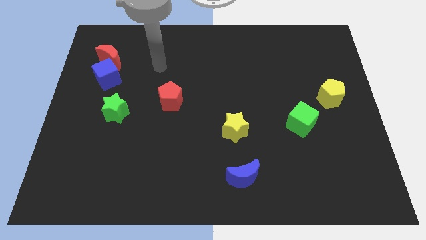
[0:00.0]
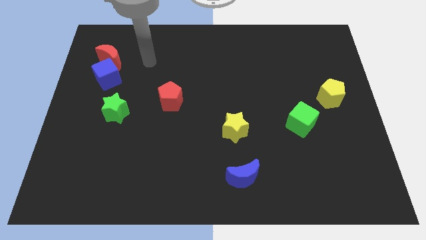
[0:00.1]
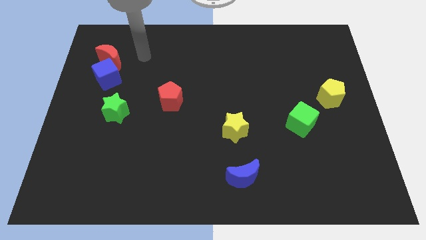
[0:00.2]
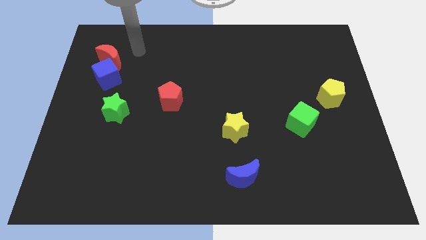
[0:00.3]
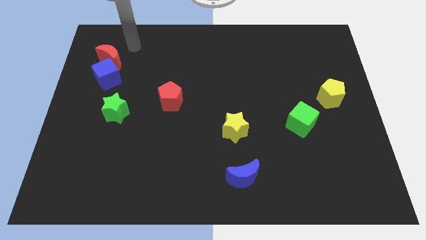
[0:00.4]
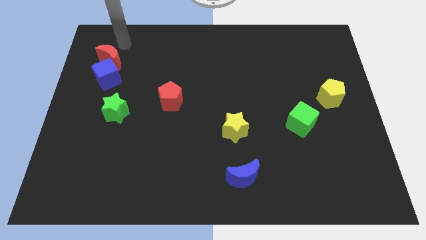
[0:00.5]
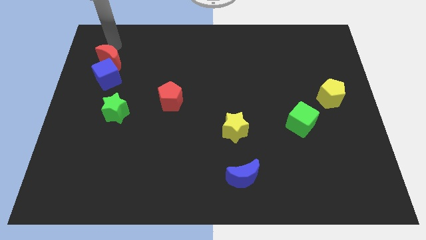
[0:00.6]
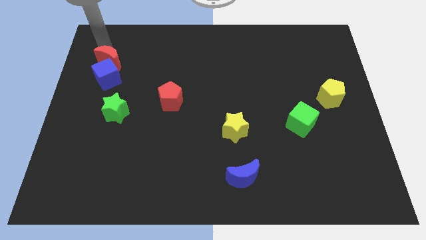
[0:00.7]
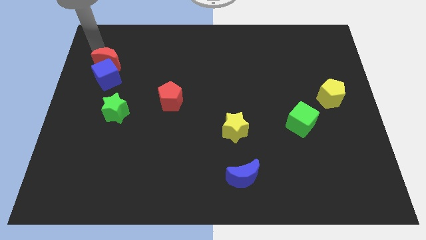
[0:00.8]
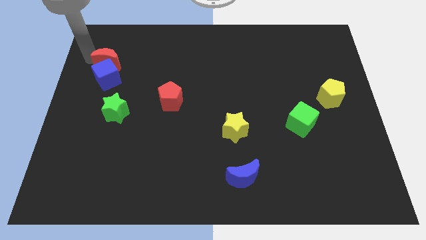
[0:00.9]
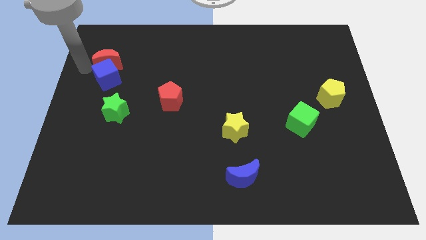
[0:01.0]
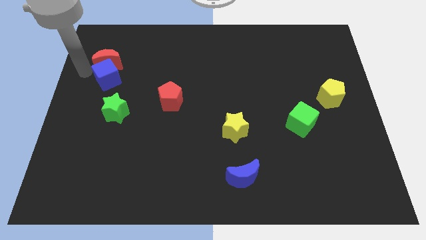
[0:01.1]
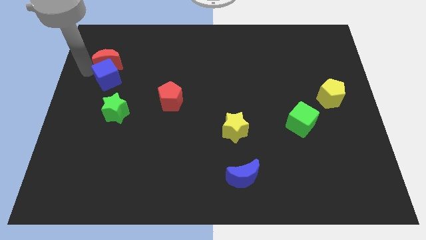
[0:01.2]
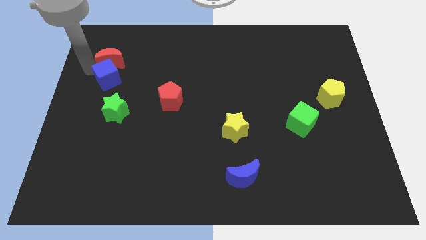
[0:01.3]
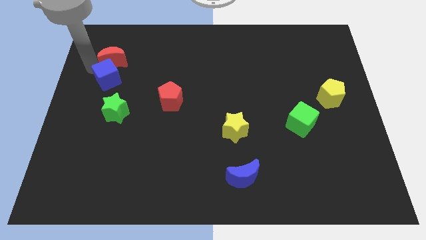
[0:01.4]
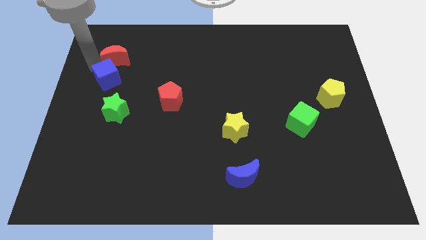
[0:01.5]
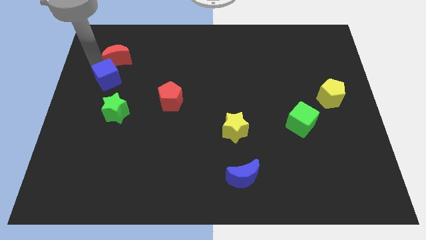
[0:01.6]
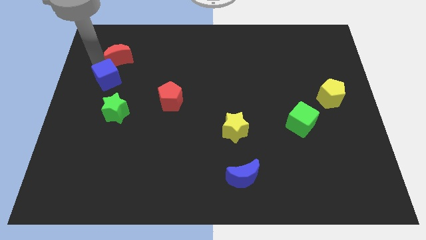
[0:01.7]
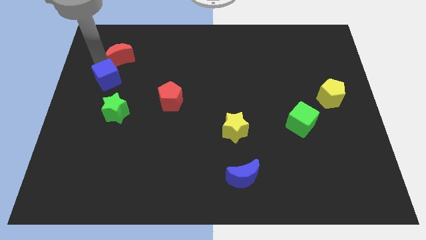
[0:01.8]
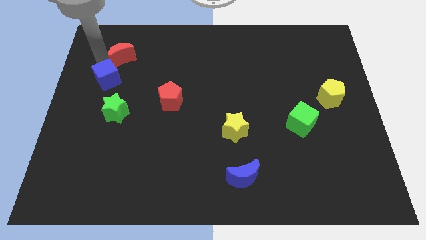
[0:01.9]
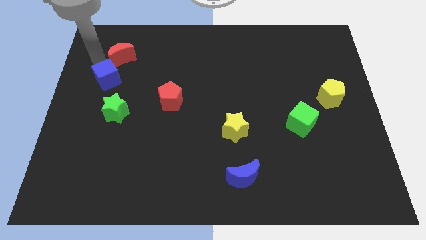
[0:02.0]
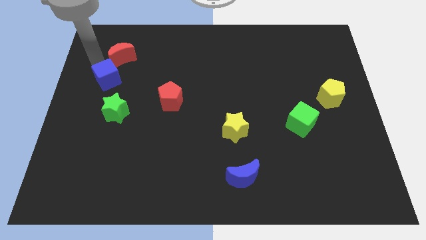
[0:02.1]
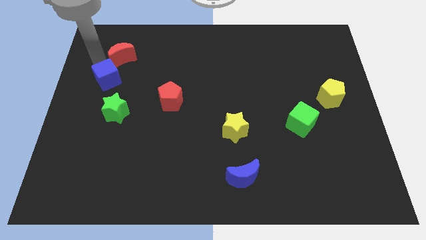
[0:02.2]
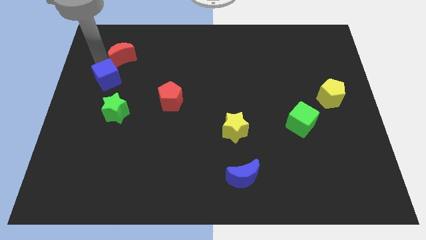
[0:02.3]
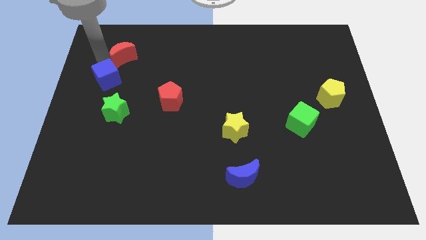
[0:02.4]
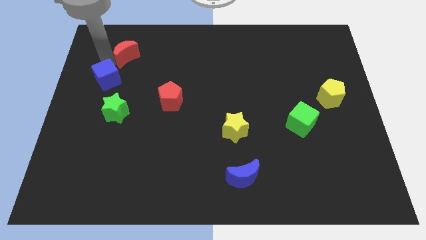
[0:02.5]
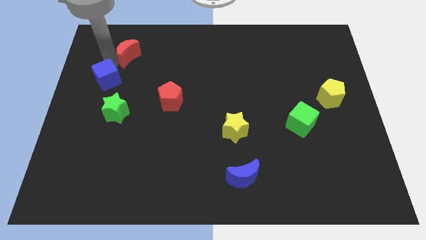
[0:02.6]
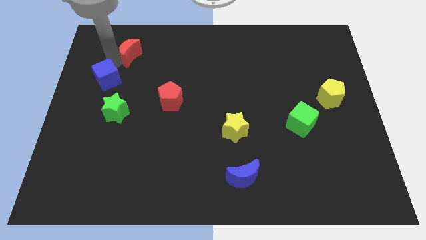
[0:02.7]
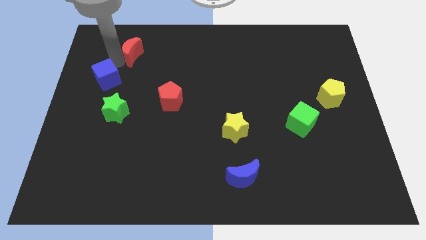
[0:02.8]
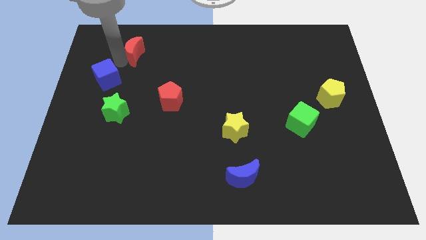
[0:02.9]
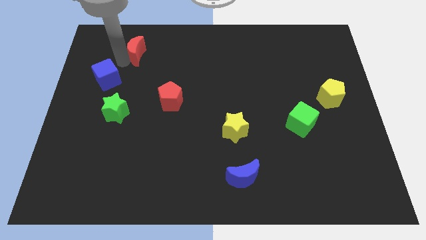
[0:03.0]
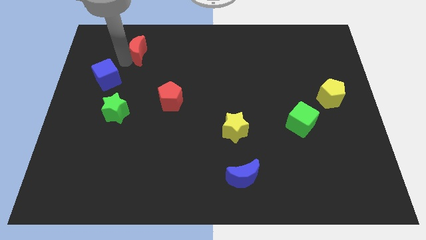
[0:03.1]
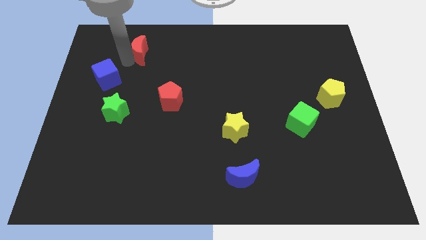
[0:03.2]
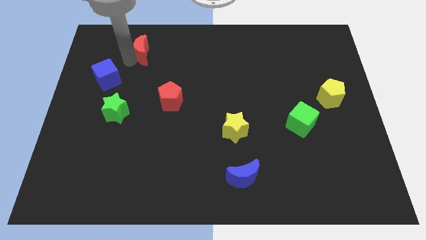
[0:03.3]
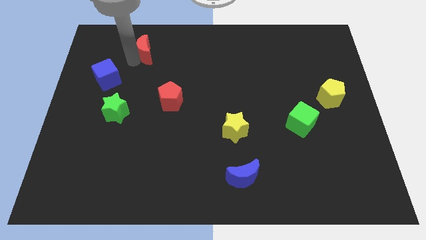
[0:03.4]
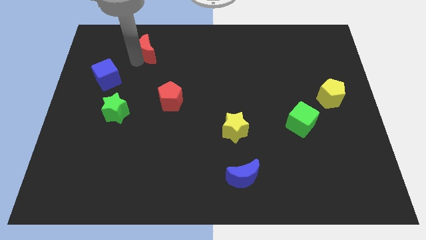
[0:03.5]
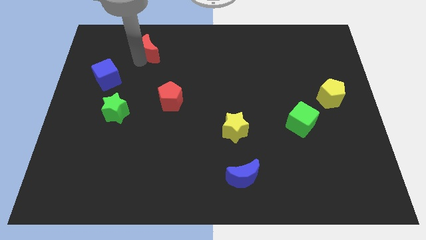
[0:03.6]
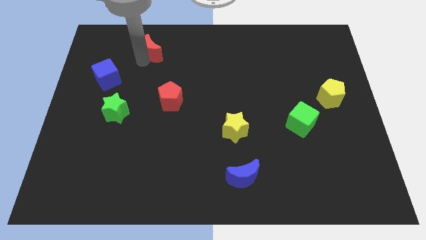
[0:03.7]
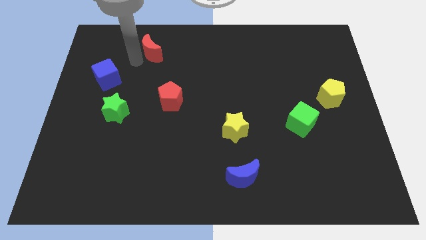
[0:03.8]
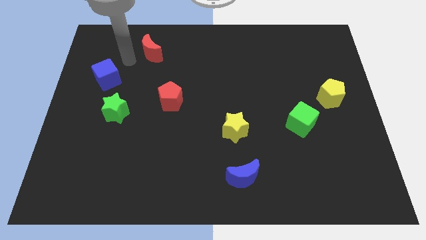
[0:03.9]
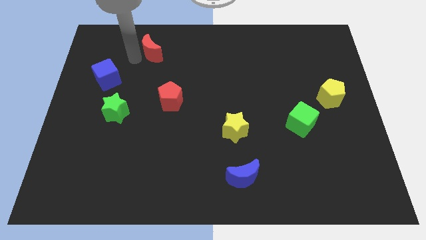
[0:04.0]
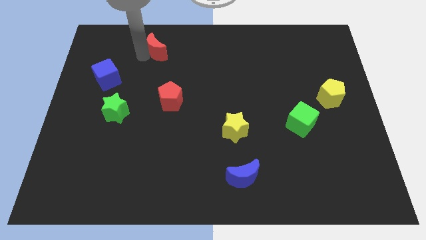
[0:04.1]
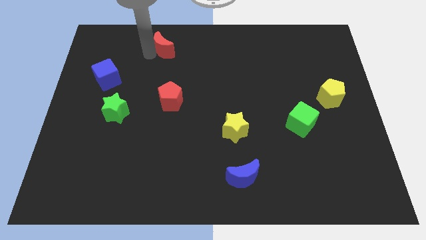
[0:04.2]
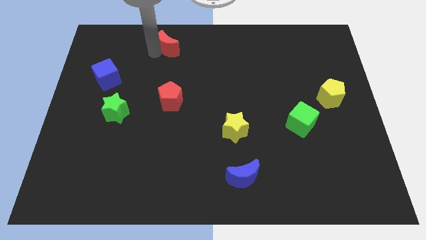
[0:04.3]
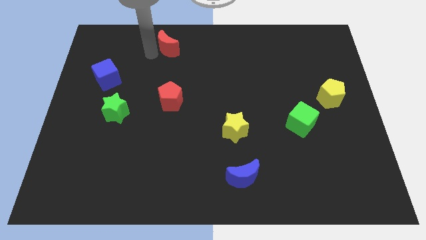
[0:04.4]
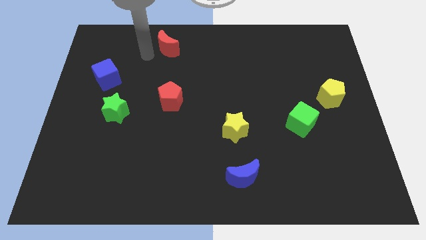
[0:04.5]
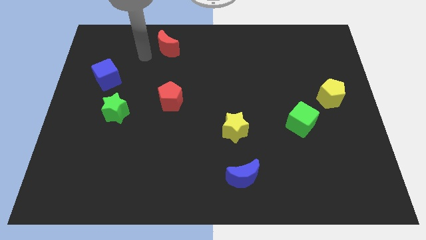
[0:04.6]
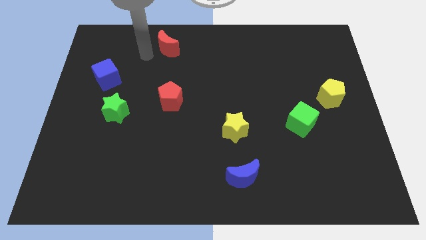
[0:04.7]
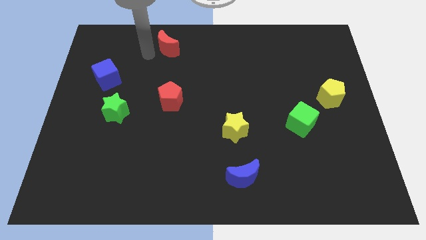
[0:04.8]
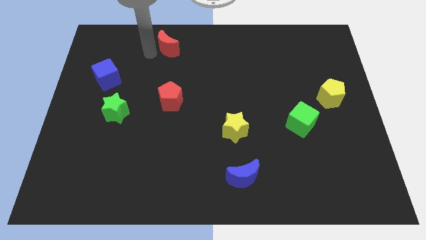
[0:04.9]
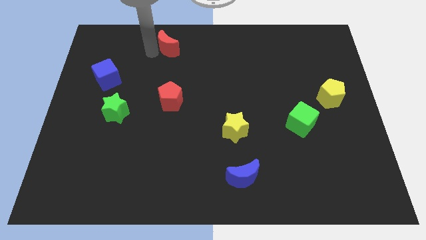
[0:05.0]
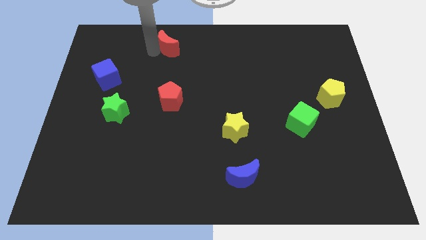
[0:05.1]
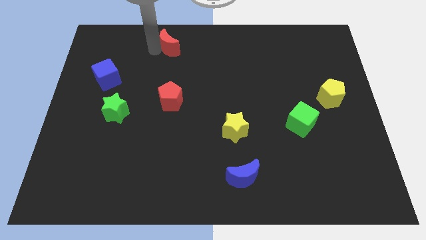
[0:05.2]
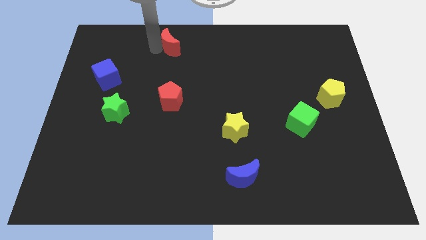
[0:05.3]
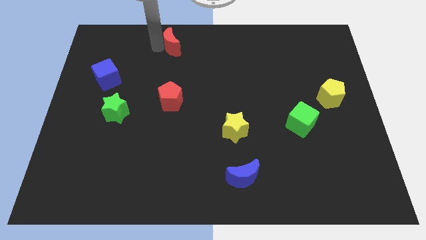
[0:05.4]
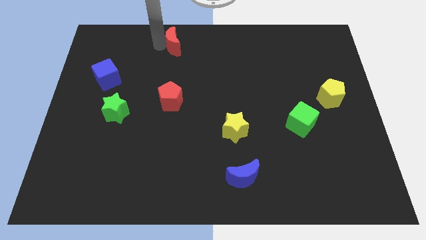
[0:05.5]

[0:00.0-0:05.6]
slide the red moon to the towards your base
